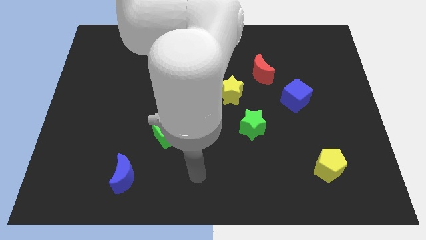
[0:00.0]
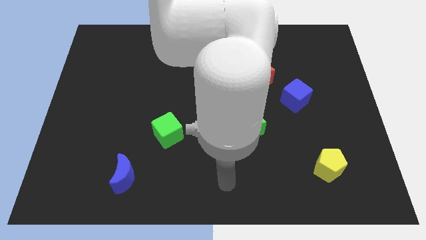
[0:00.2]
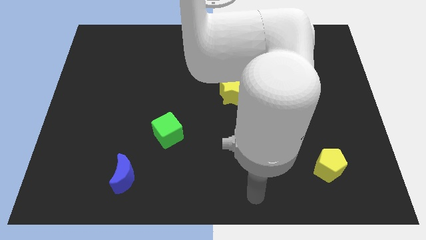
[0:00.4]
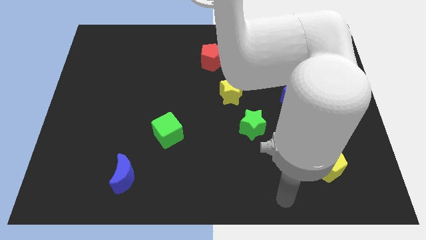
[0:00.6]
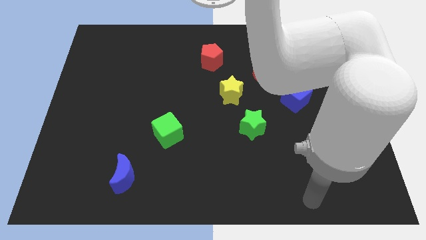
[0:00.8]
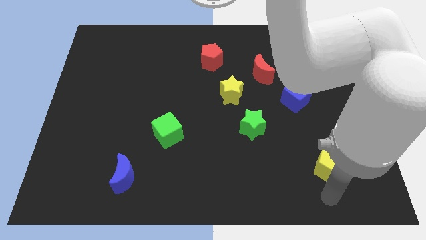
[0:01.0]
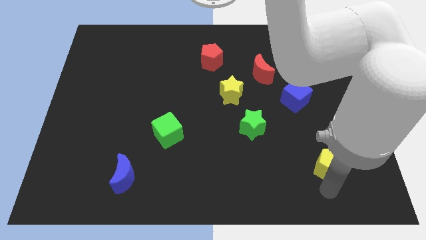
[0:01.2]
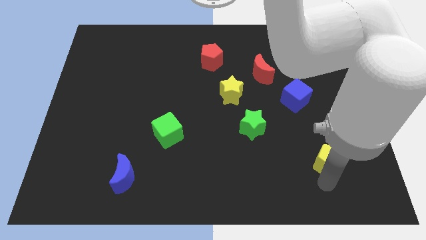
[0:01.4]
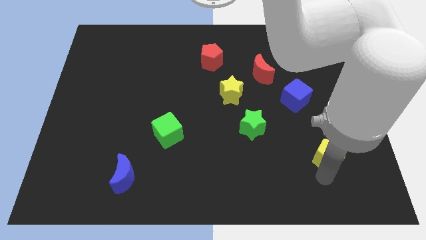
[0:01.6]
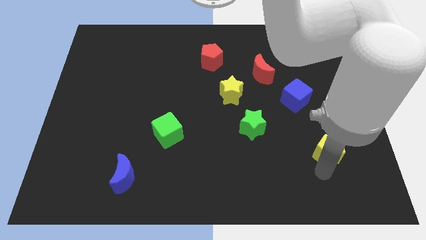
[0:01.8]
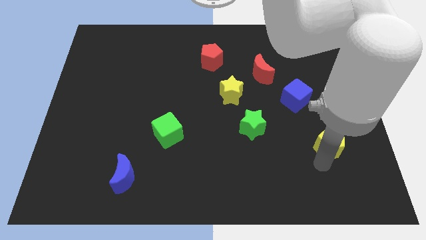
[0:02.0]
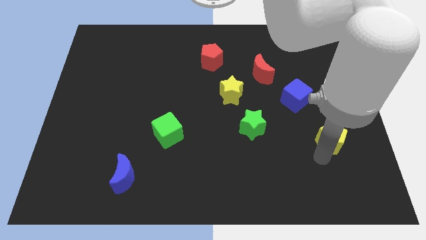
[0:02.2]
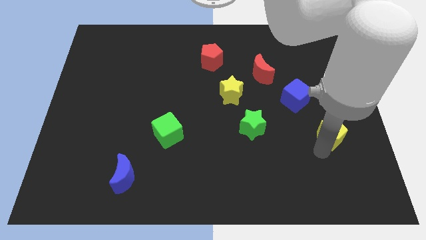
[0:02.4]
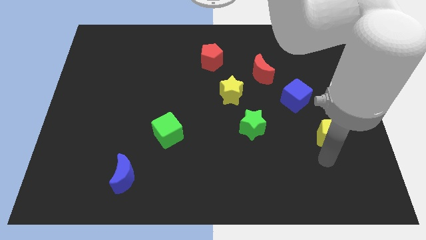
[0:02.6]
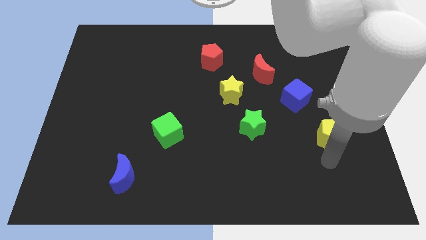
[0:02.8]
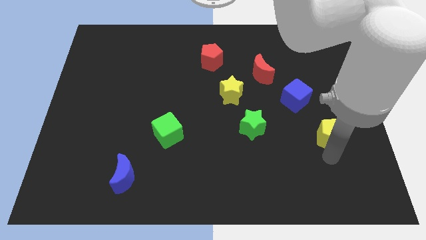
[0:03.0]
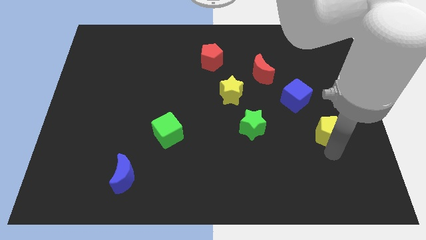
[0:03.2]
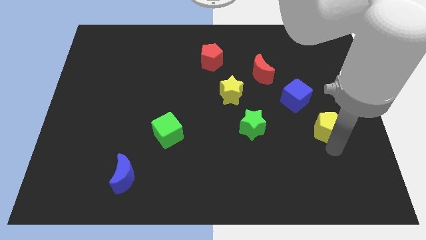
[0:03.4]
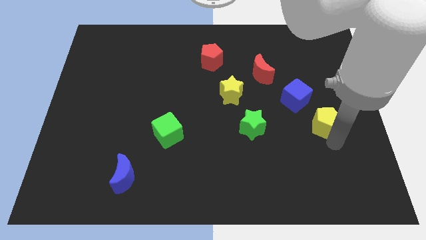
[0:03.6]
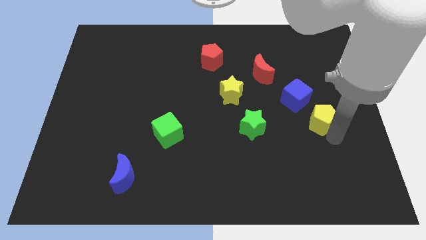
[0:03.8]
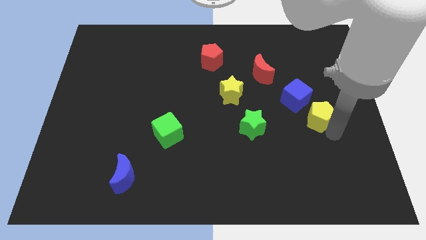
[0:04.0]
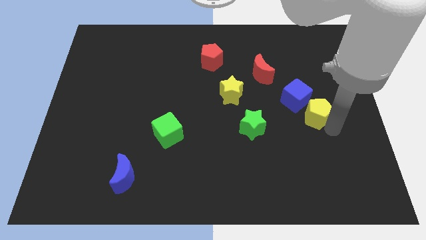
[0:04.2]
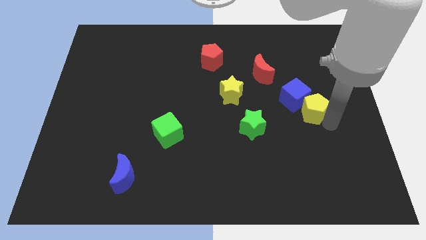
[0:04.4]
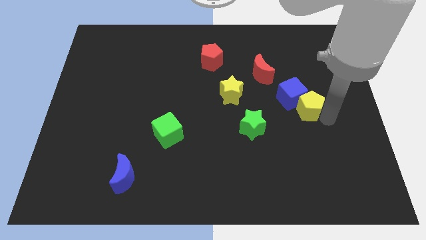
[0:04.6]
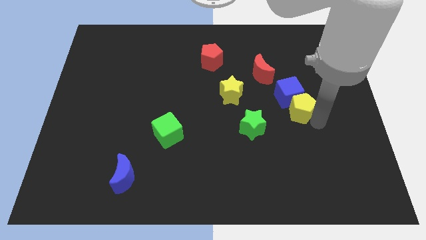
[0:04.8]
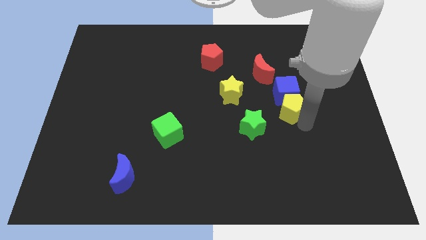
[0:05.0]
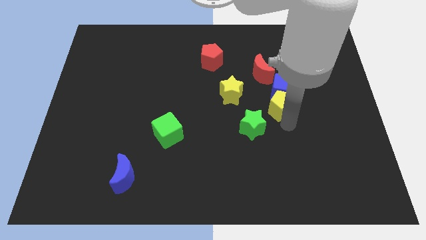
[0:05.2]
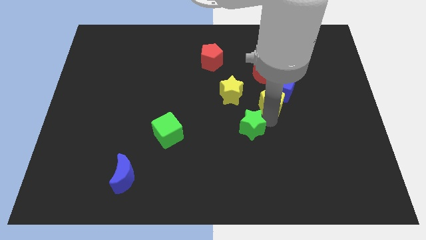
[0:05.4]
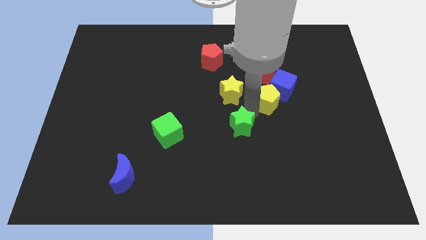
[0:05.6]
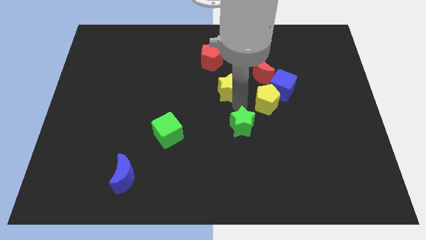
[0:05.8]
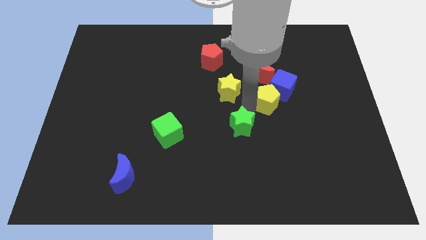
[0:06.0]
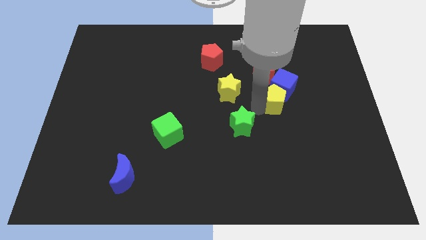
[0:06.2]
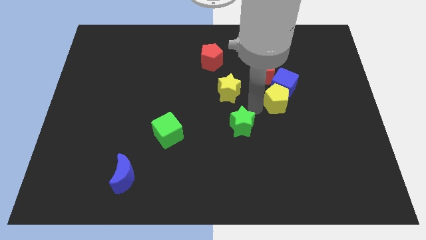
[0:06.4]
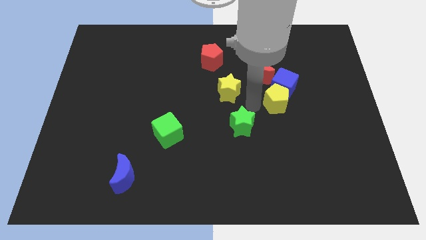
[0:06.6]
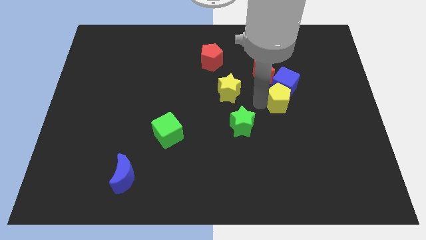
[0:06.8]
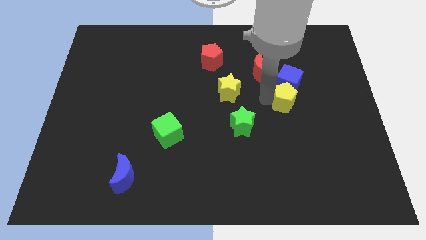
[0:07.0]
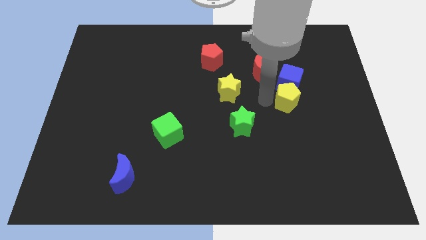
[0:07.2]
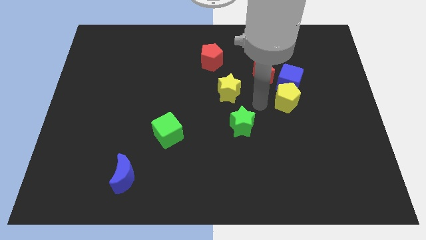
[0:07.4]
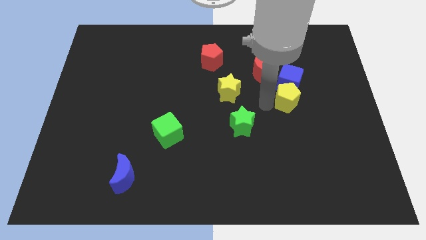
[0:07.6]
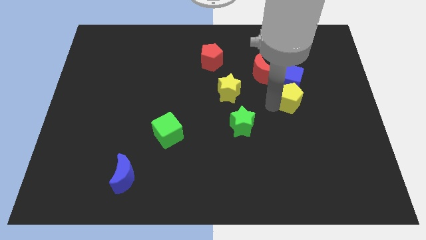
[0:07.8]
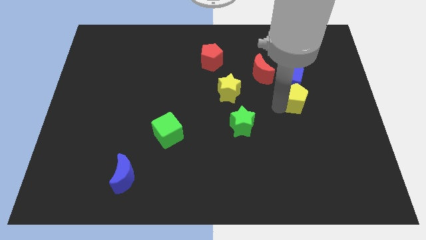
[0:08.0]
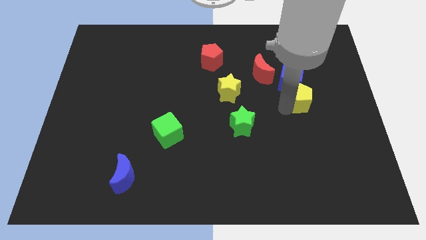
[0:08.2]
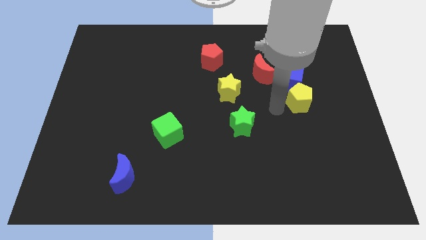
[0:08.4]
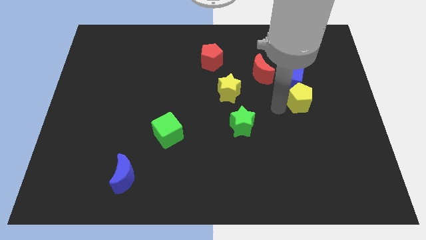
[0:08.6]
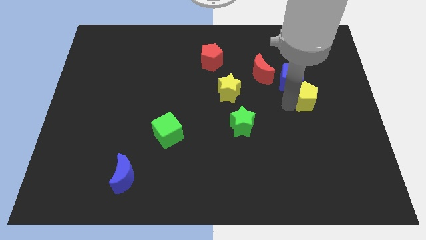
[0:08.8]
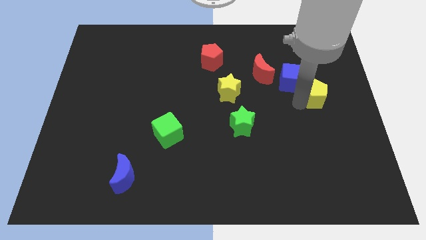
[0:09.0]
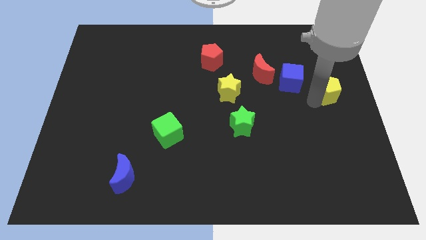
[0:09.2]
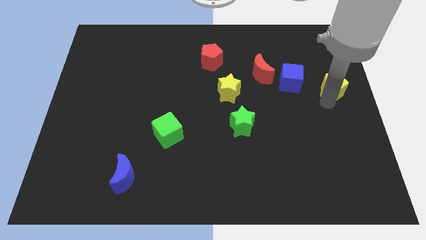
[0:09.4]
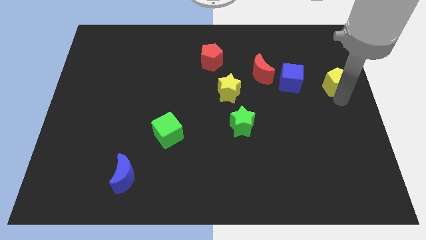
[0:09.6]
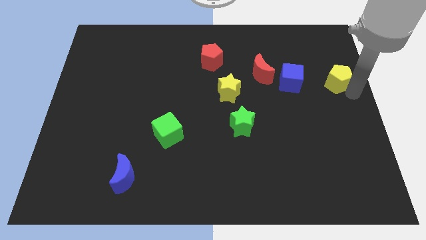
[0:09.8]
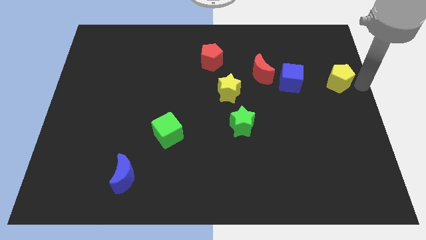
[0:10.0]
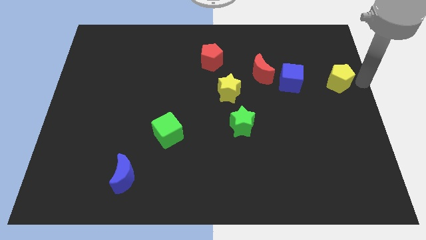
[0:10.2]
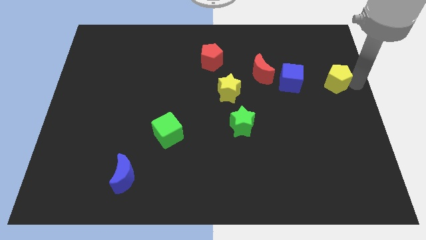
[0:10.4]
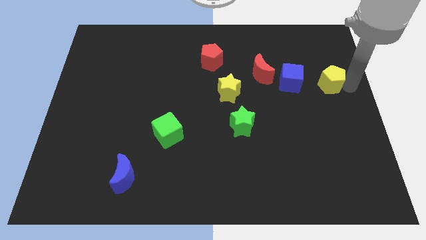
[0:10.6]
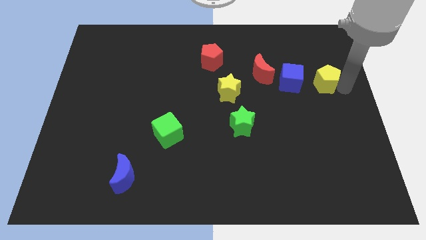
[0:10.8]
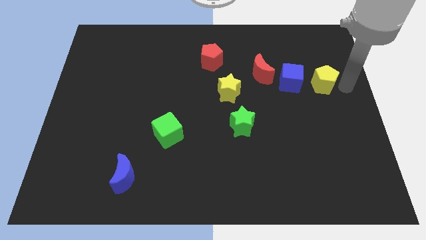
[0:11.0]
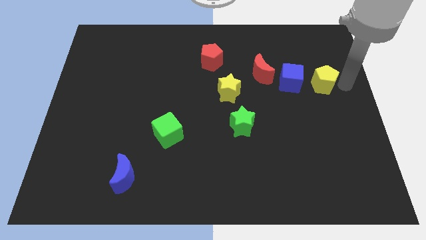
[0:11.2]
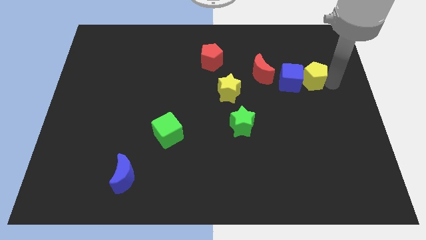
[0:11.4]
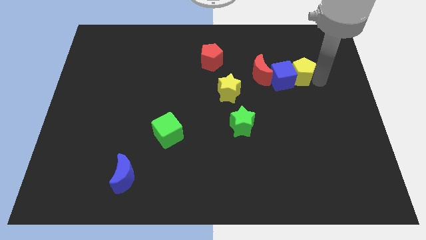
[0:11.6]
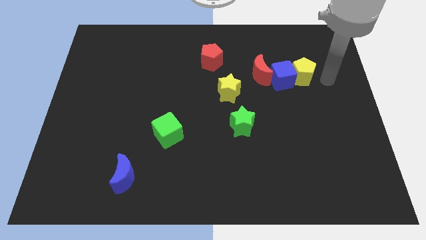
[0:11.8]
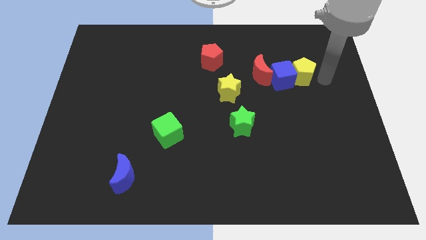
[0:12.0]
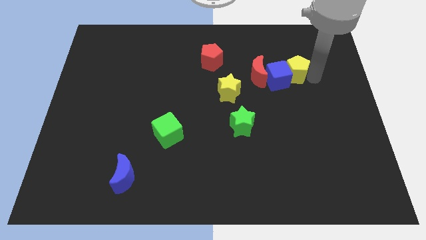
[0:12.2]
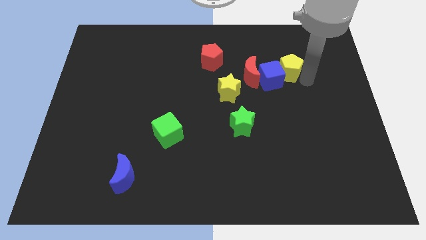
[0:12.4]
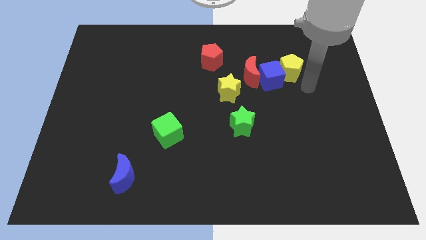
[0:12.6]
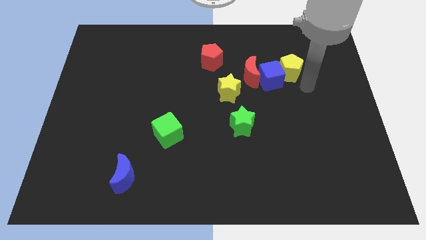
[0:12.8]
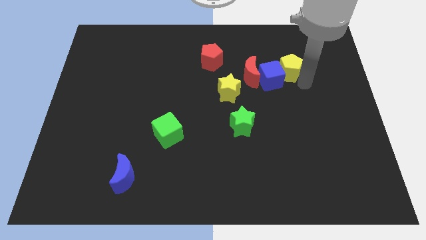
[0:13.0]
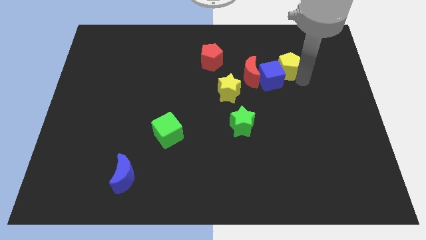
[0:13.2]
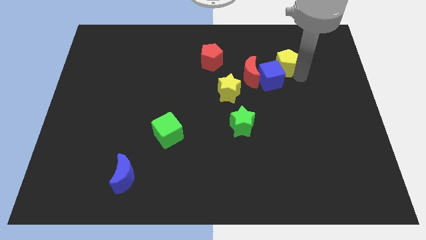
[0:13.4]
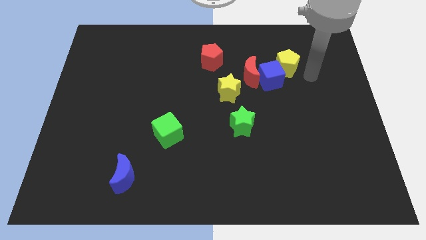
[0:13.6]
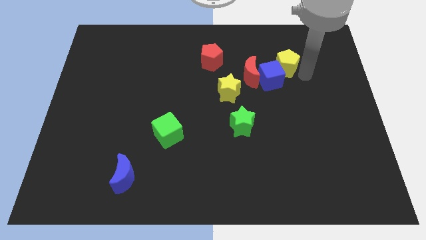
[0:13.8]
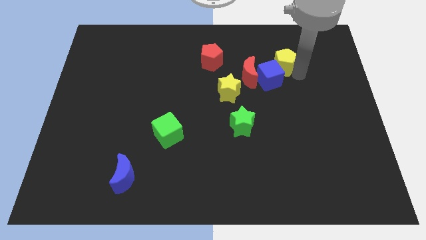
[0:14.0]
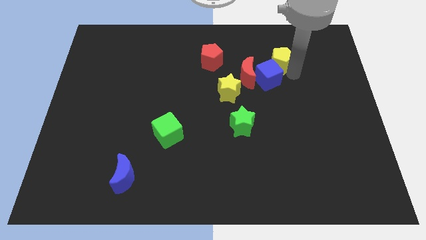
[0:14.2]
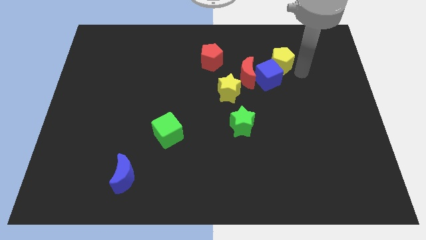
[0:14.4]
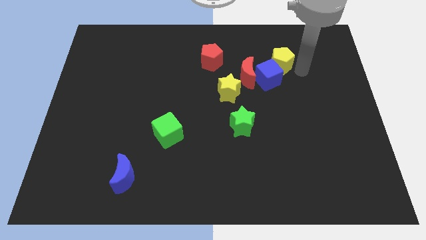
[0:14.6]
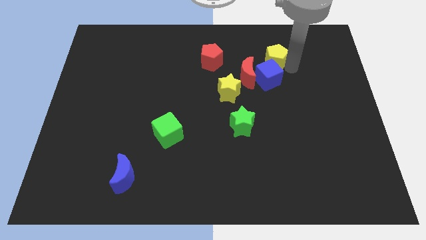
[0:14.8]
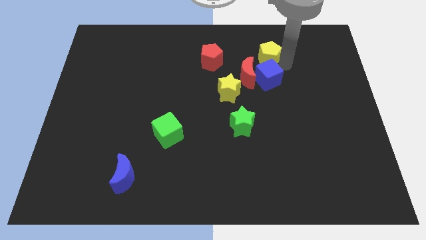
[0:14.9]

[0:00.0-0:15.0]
move the yellow pentagon just right of the red pentagon

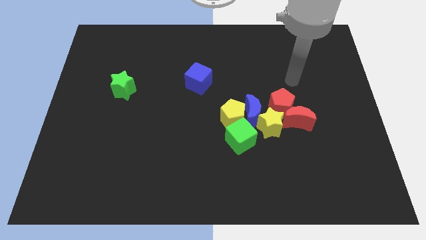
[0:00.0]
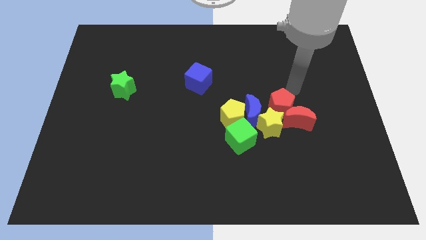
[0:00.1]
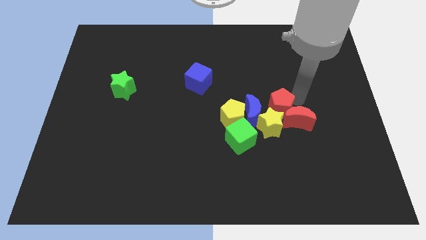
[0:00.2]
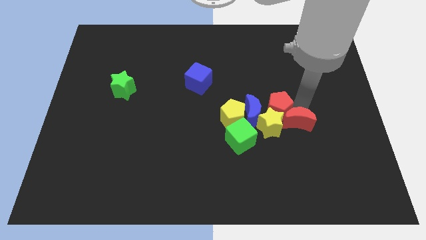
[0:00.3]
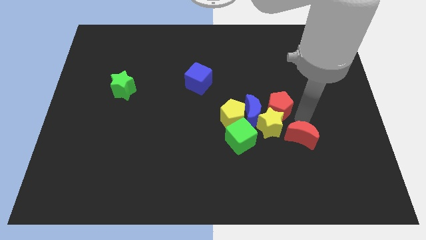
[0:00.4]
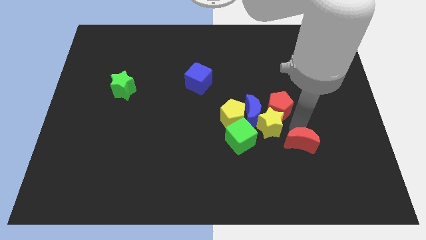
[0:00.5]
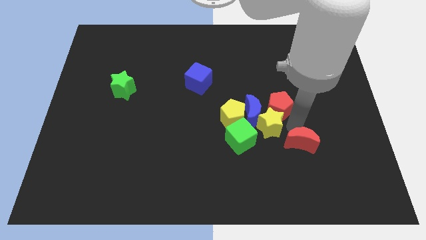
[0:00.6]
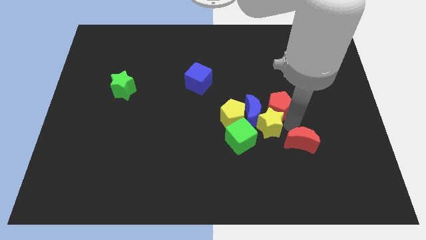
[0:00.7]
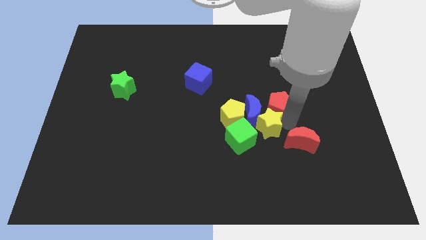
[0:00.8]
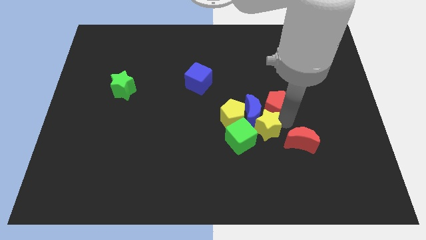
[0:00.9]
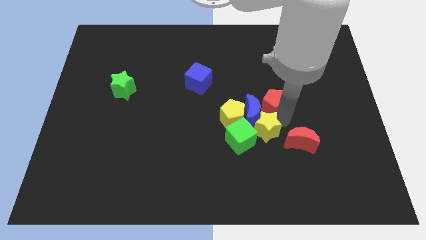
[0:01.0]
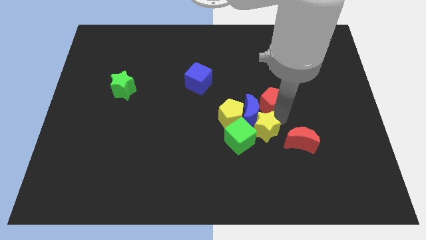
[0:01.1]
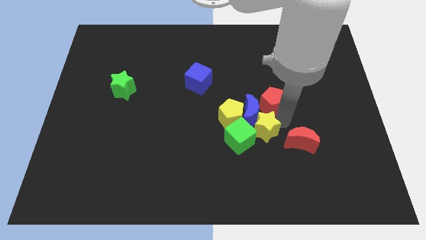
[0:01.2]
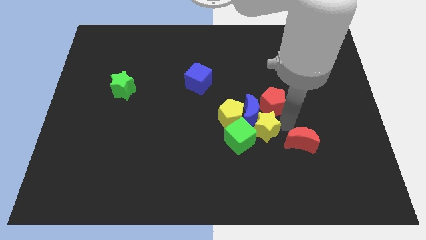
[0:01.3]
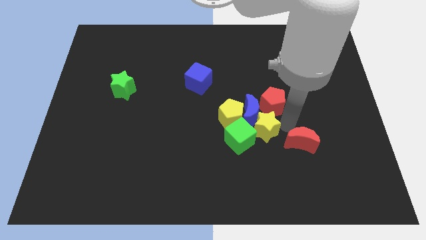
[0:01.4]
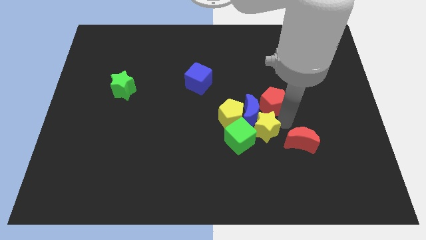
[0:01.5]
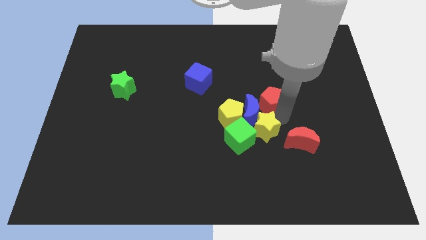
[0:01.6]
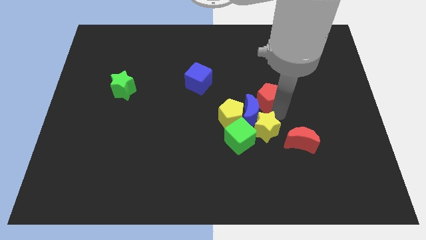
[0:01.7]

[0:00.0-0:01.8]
push the red pentagon to the top side of the blue moon
